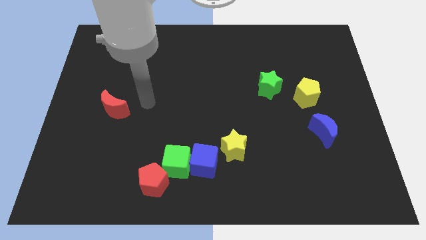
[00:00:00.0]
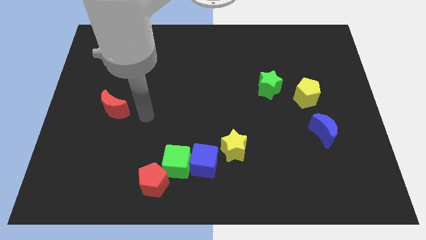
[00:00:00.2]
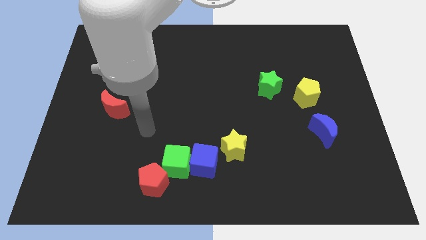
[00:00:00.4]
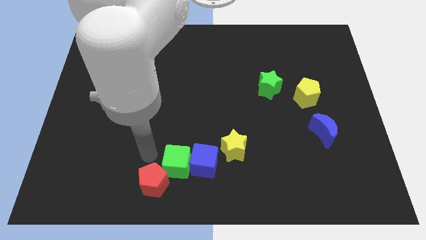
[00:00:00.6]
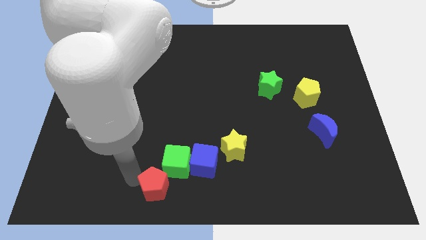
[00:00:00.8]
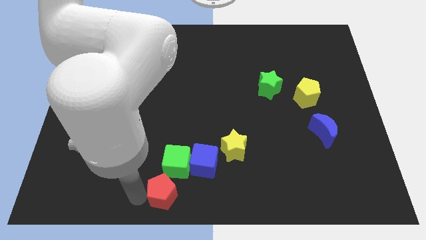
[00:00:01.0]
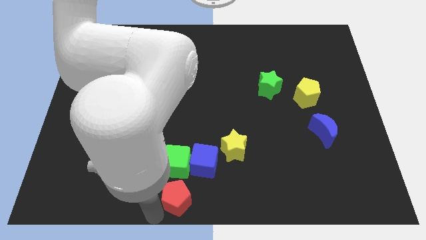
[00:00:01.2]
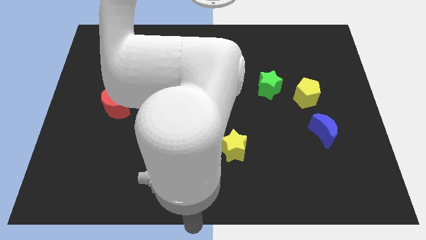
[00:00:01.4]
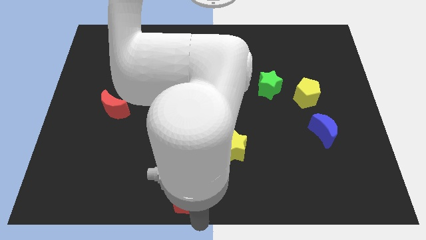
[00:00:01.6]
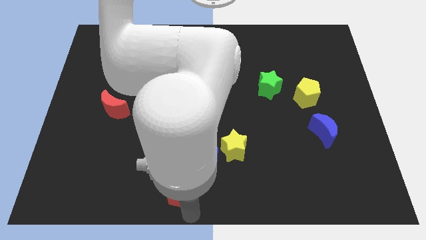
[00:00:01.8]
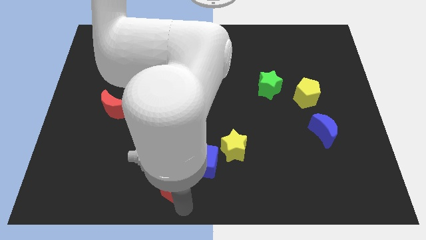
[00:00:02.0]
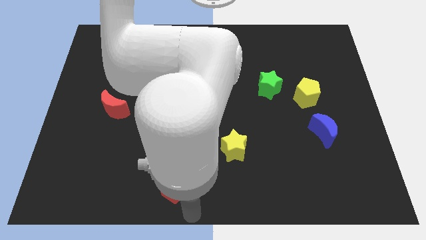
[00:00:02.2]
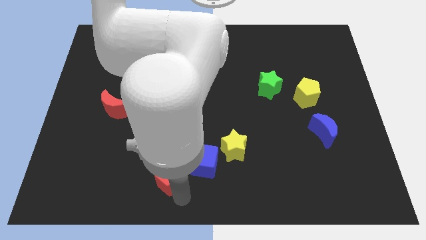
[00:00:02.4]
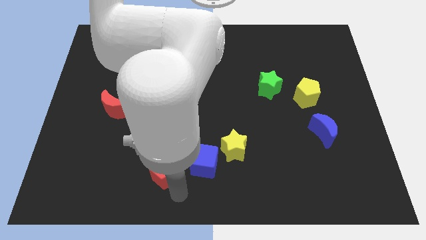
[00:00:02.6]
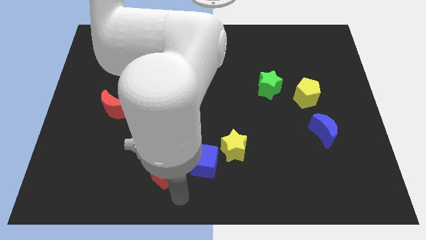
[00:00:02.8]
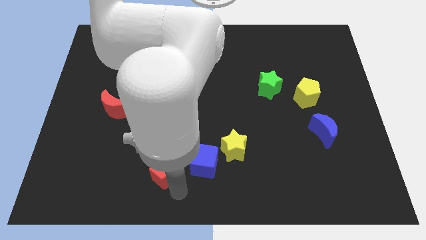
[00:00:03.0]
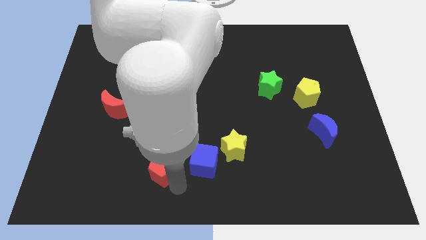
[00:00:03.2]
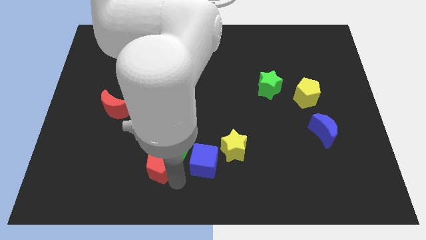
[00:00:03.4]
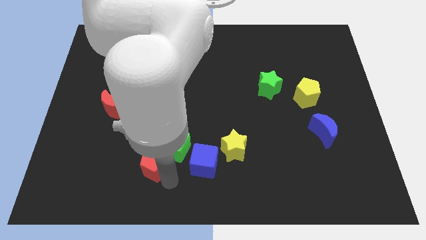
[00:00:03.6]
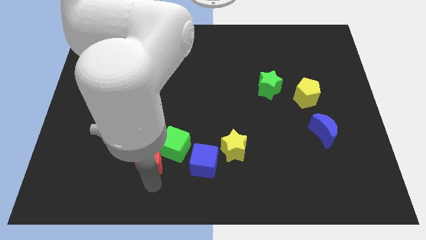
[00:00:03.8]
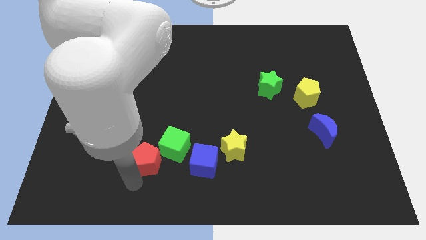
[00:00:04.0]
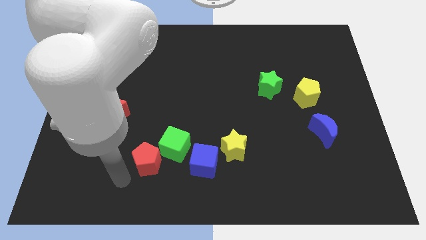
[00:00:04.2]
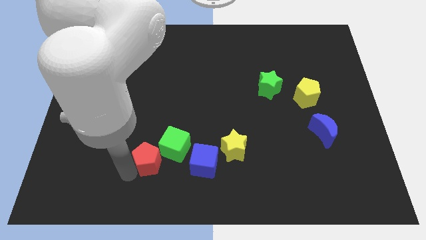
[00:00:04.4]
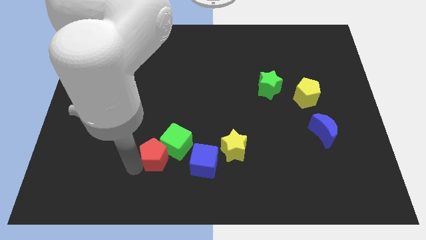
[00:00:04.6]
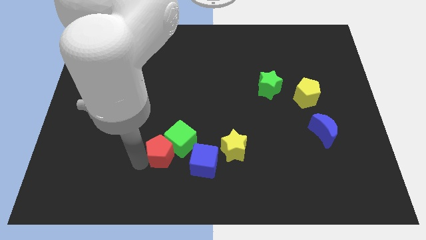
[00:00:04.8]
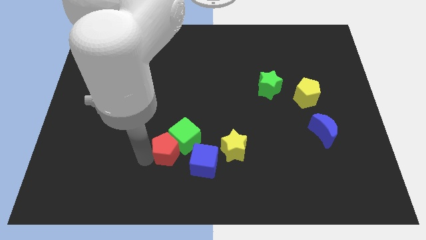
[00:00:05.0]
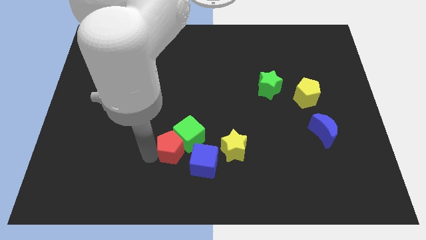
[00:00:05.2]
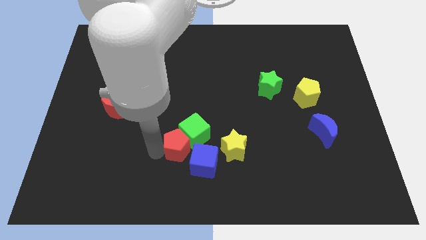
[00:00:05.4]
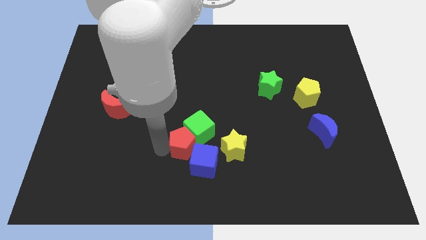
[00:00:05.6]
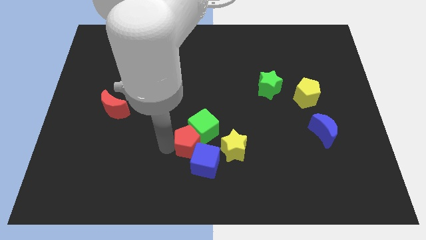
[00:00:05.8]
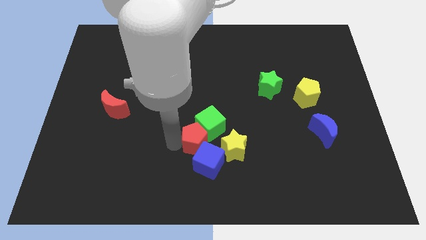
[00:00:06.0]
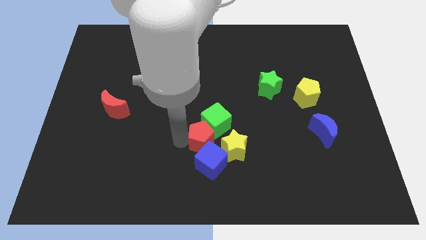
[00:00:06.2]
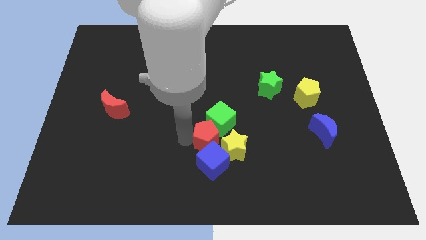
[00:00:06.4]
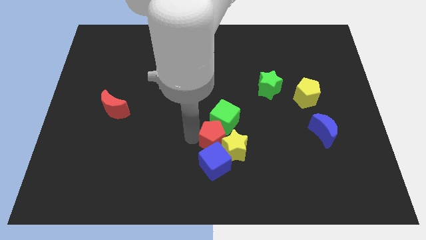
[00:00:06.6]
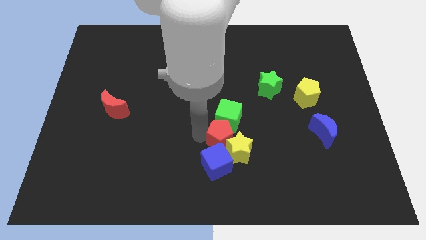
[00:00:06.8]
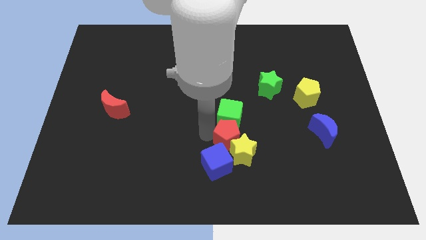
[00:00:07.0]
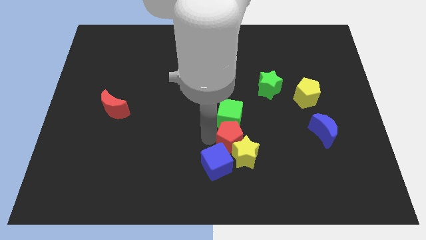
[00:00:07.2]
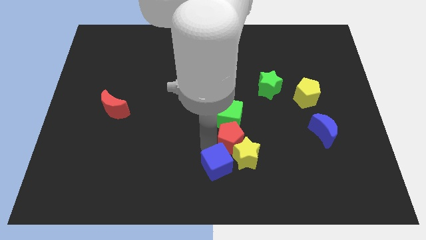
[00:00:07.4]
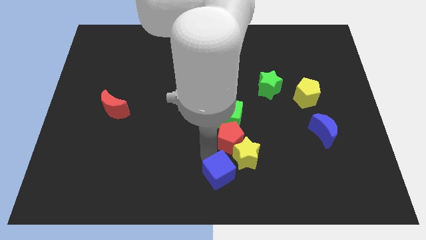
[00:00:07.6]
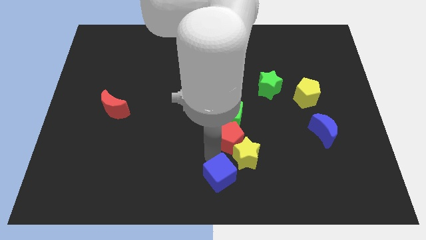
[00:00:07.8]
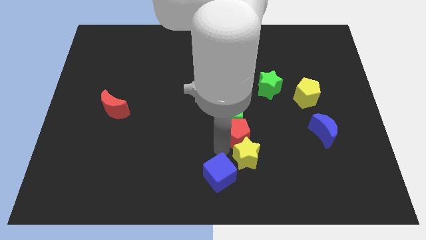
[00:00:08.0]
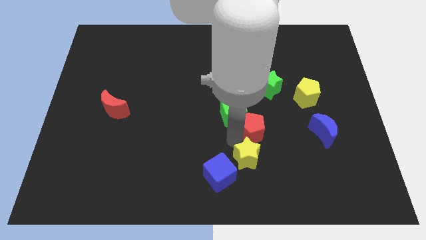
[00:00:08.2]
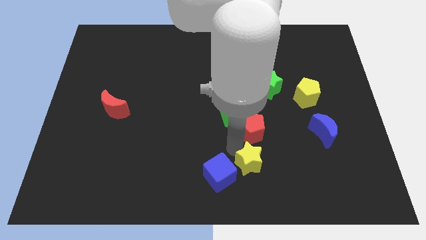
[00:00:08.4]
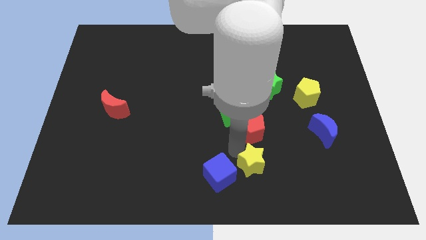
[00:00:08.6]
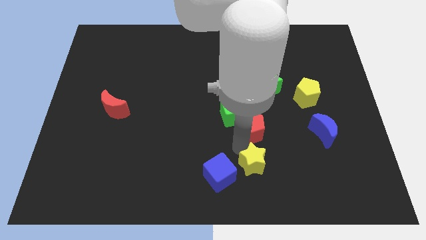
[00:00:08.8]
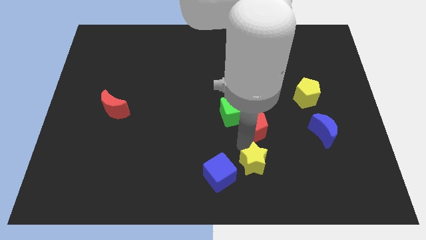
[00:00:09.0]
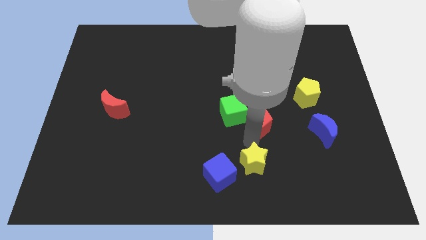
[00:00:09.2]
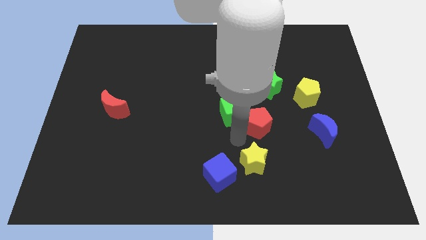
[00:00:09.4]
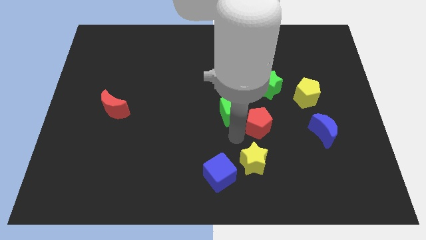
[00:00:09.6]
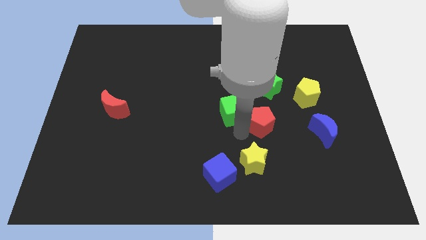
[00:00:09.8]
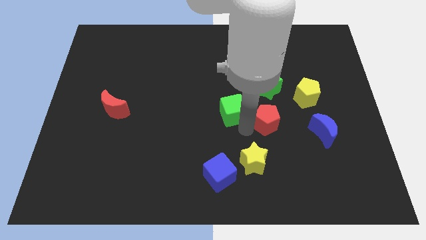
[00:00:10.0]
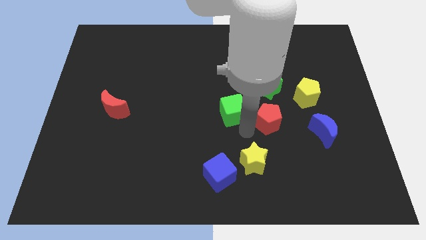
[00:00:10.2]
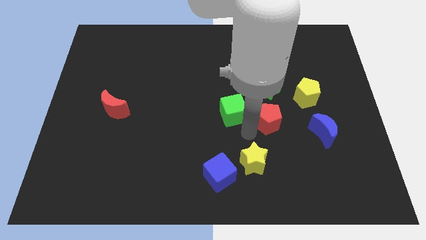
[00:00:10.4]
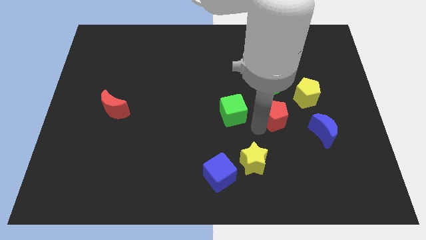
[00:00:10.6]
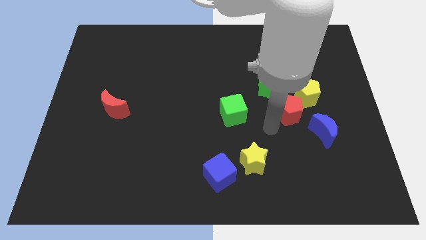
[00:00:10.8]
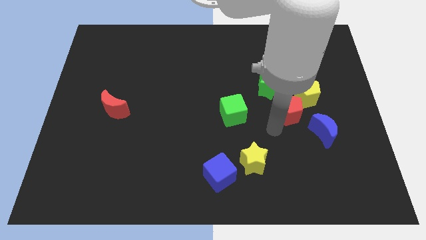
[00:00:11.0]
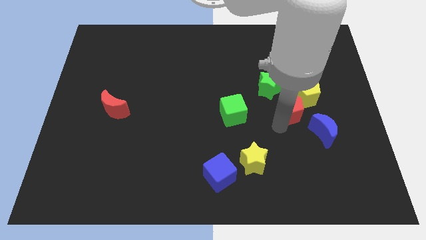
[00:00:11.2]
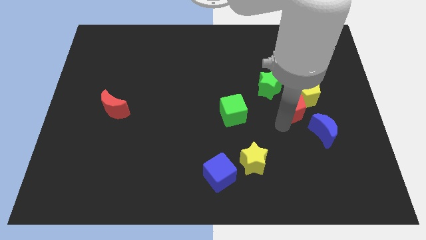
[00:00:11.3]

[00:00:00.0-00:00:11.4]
move the red pentagon to the yellow pentagon

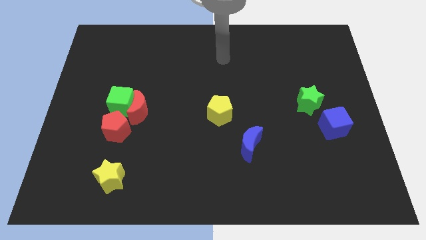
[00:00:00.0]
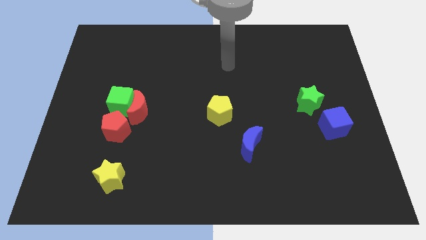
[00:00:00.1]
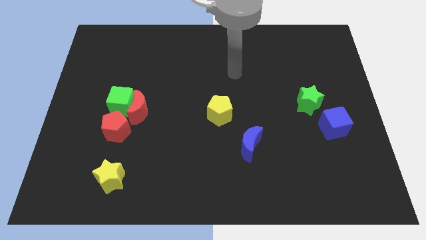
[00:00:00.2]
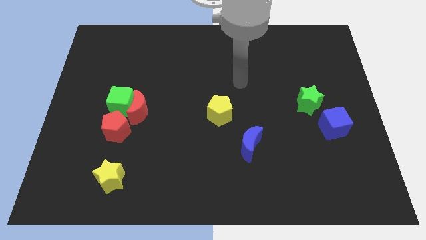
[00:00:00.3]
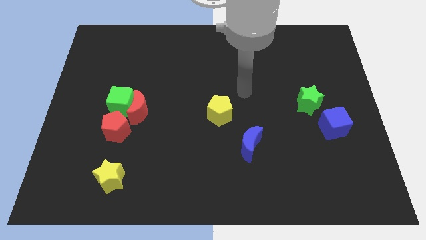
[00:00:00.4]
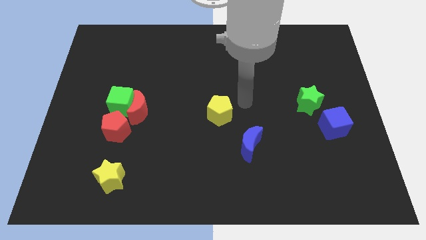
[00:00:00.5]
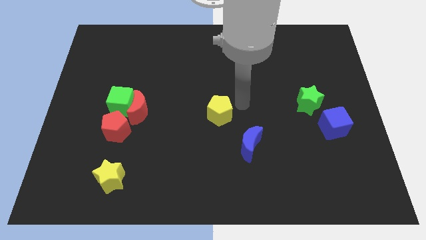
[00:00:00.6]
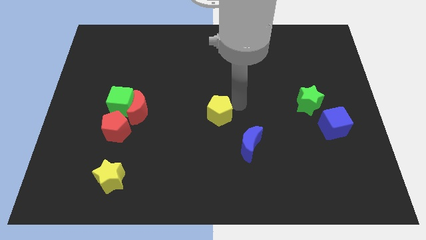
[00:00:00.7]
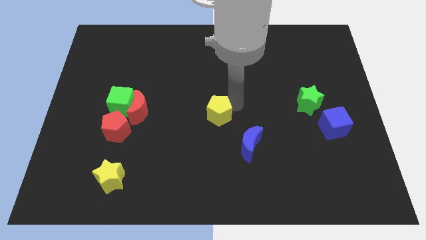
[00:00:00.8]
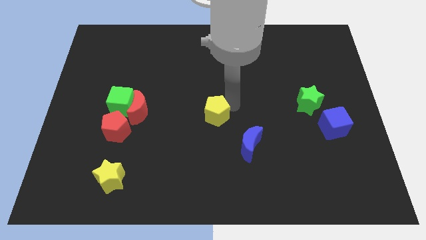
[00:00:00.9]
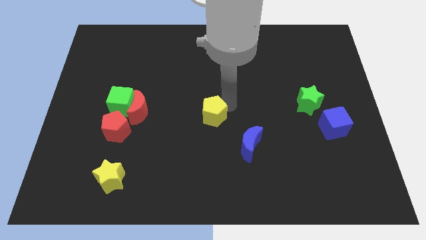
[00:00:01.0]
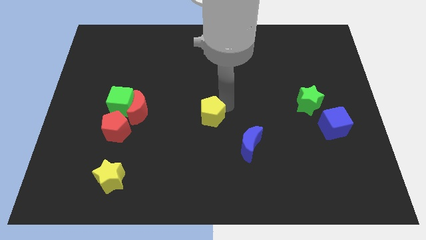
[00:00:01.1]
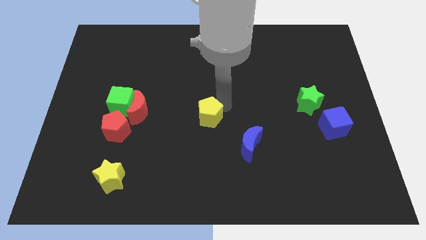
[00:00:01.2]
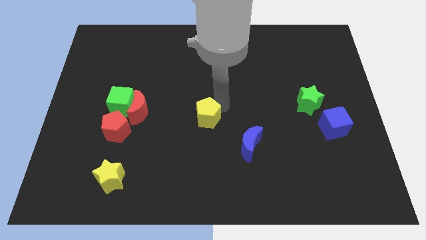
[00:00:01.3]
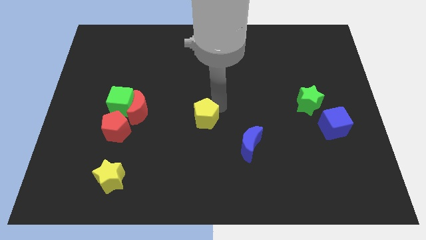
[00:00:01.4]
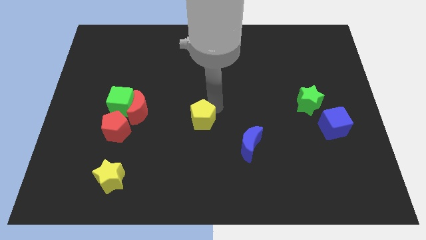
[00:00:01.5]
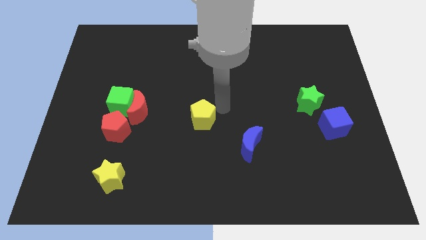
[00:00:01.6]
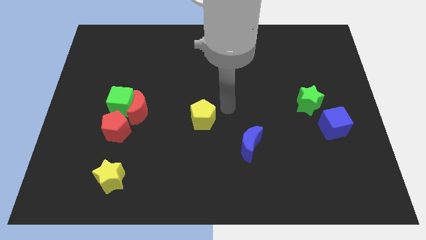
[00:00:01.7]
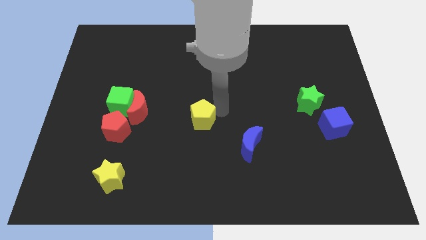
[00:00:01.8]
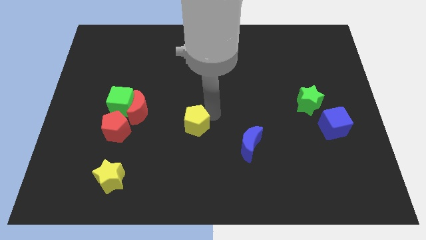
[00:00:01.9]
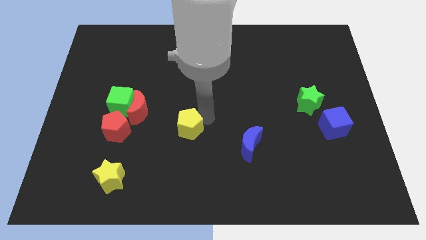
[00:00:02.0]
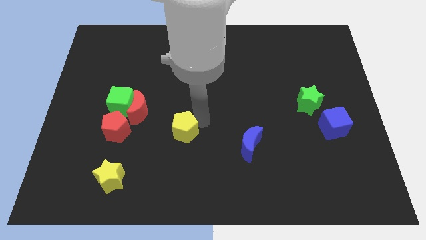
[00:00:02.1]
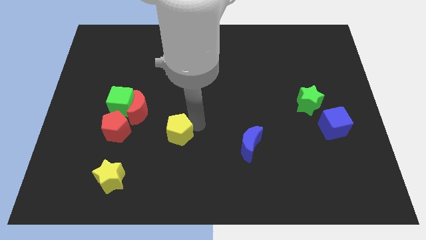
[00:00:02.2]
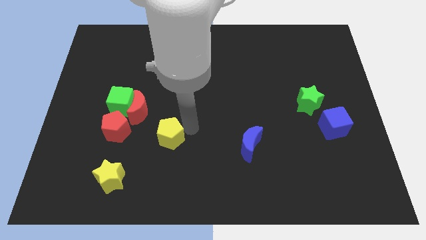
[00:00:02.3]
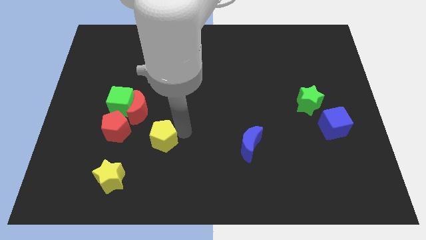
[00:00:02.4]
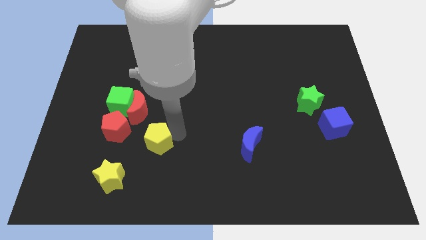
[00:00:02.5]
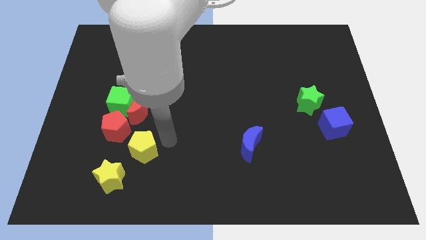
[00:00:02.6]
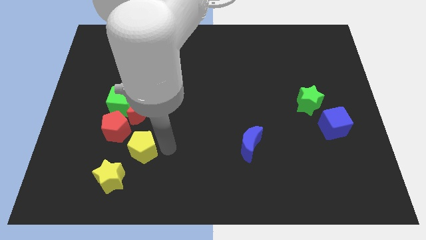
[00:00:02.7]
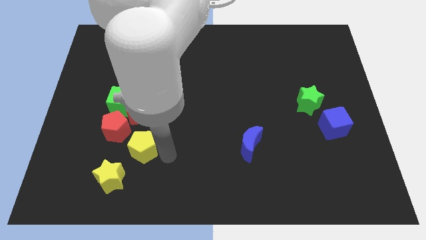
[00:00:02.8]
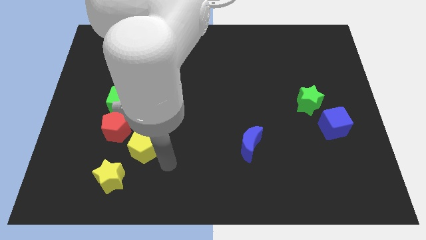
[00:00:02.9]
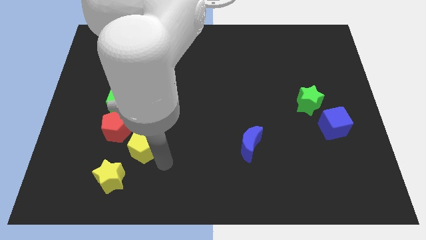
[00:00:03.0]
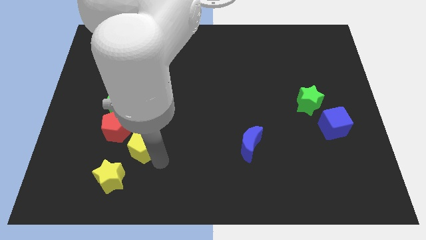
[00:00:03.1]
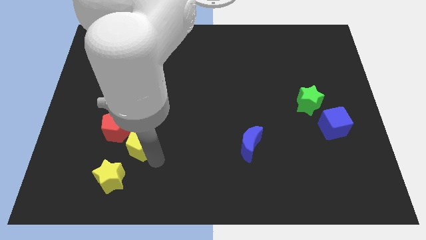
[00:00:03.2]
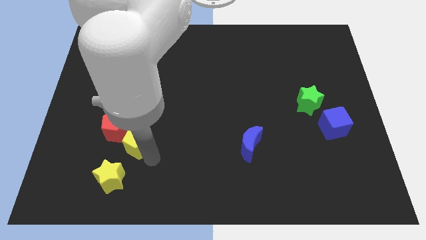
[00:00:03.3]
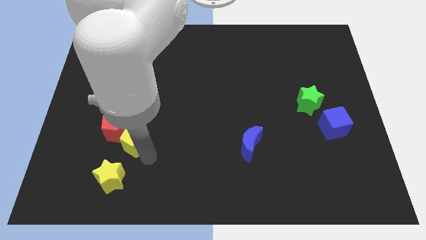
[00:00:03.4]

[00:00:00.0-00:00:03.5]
move the yellow pentagon close to the red pentagon
